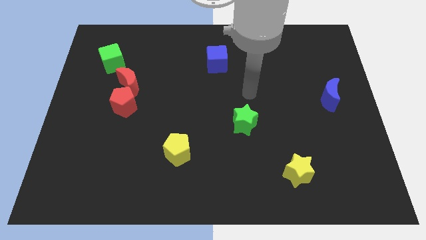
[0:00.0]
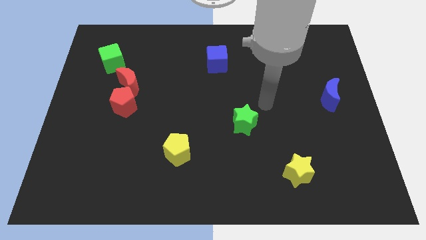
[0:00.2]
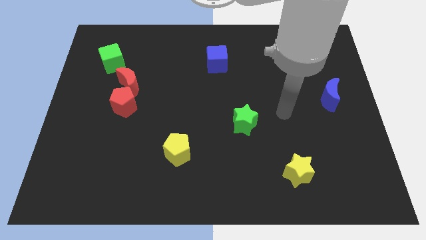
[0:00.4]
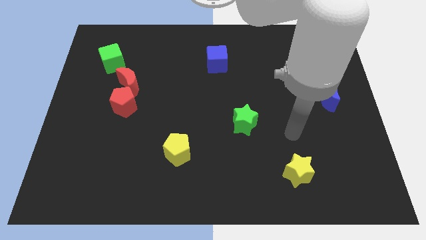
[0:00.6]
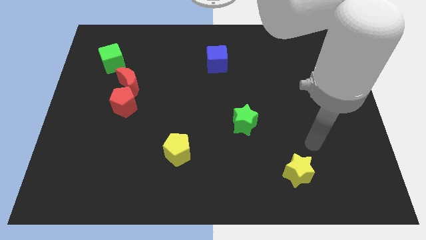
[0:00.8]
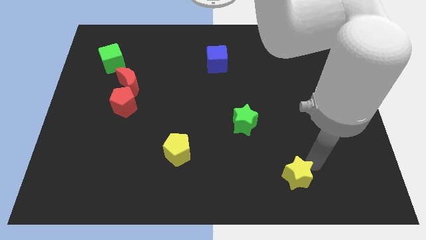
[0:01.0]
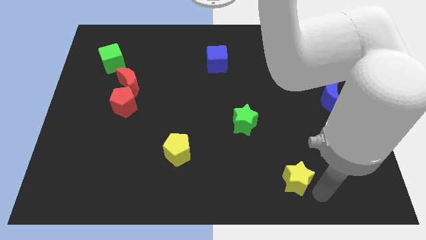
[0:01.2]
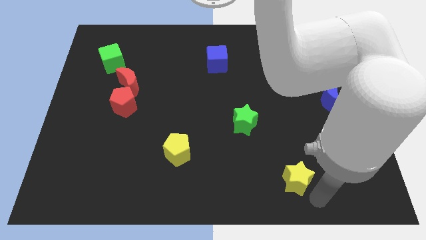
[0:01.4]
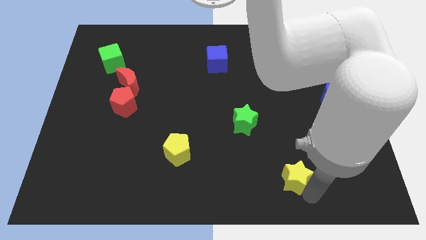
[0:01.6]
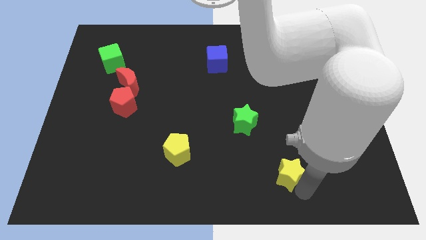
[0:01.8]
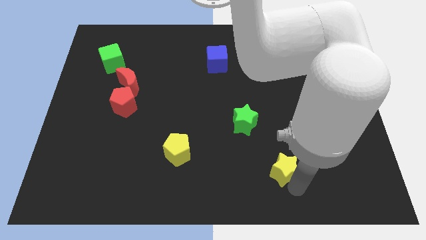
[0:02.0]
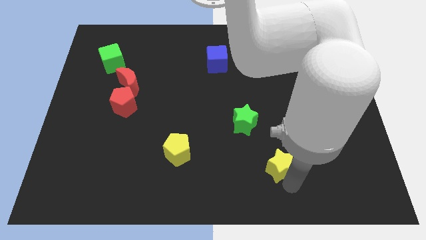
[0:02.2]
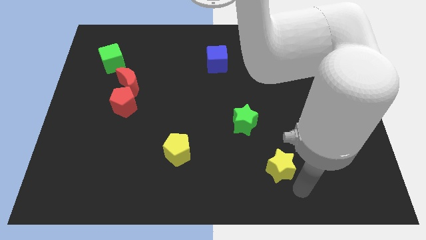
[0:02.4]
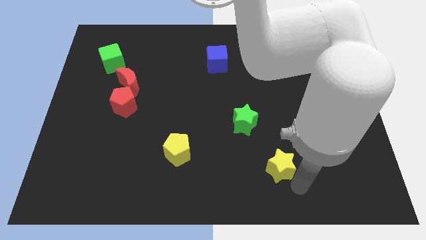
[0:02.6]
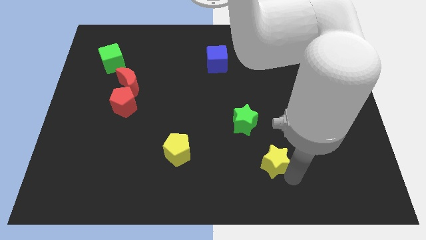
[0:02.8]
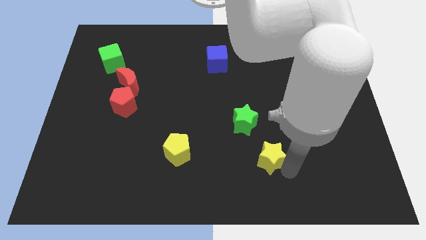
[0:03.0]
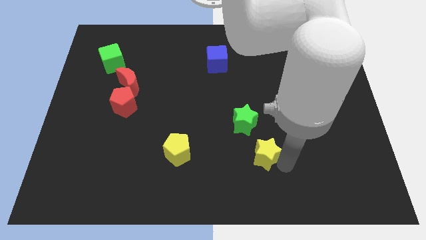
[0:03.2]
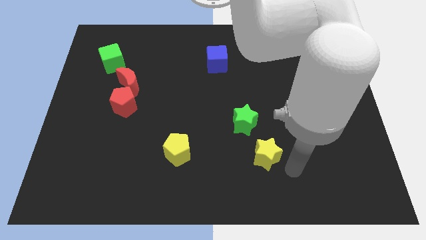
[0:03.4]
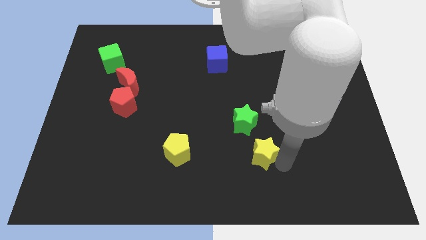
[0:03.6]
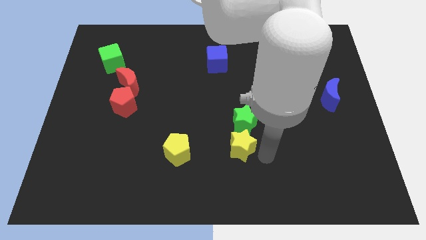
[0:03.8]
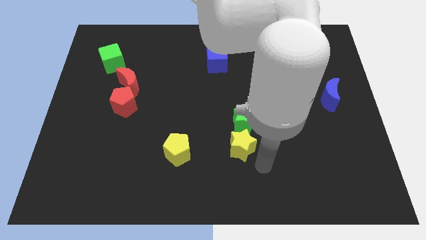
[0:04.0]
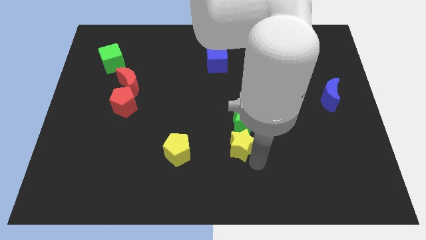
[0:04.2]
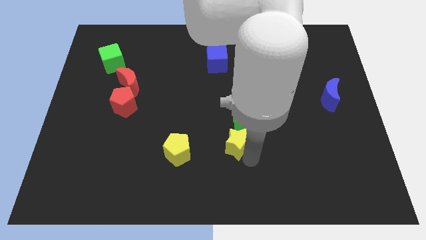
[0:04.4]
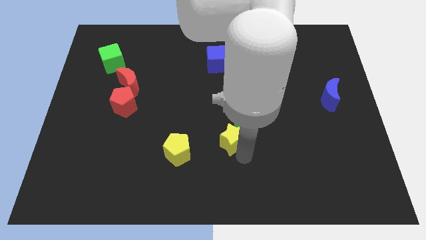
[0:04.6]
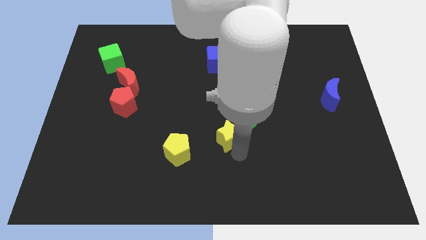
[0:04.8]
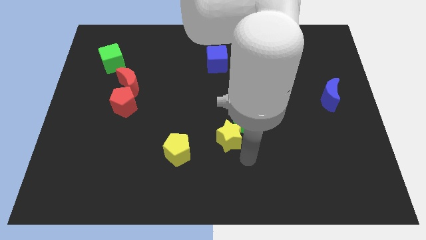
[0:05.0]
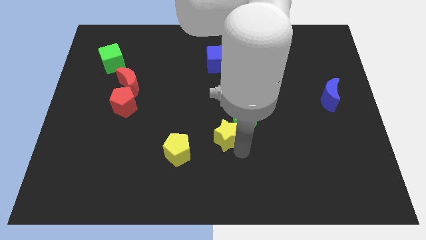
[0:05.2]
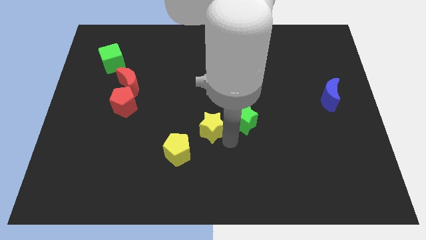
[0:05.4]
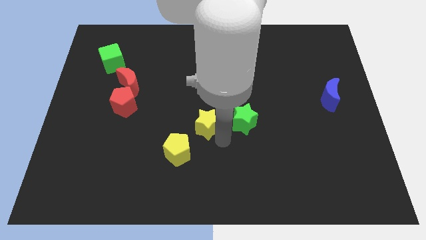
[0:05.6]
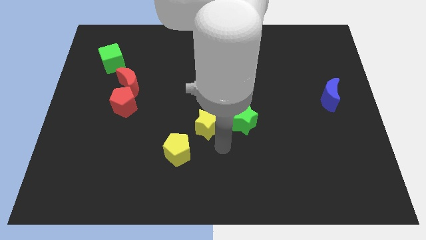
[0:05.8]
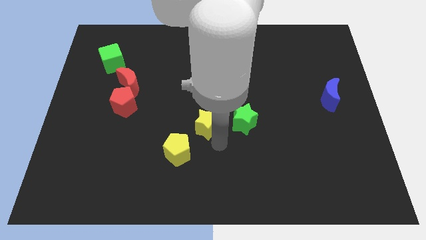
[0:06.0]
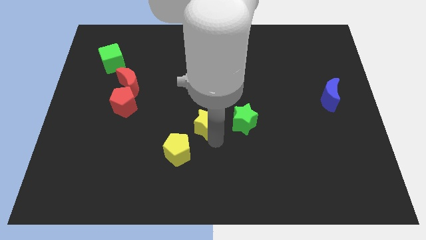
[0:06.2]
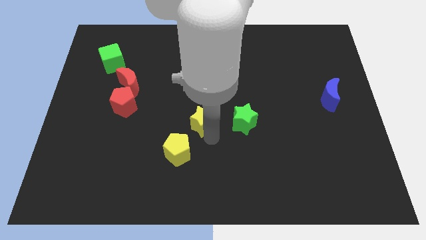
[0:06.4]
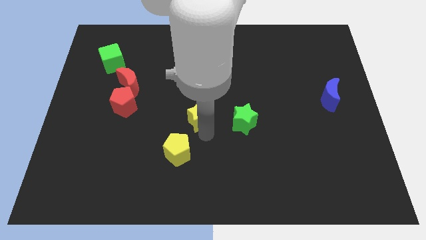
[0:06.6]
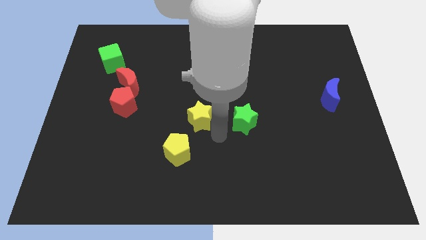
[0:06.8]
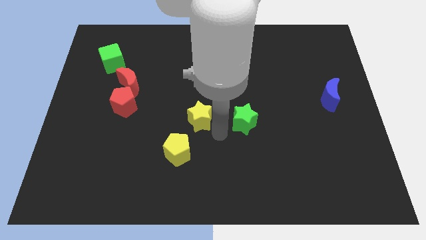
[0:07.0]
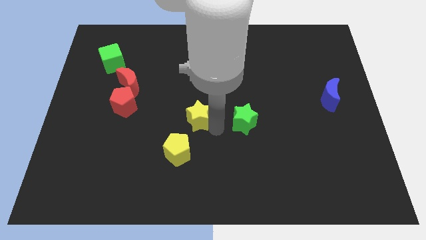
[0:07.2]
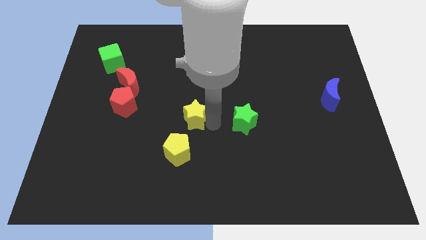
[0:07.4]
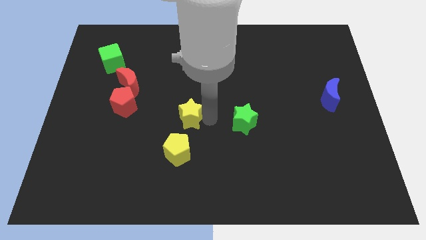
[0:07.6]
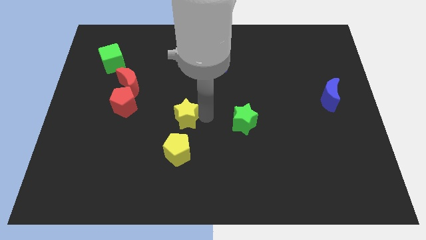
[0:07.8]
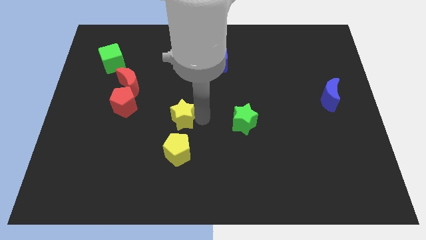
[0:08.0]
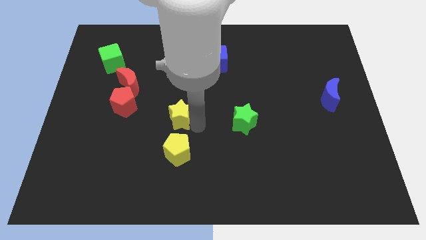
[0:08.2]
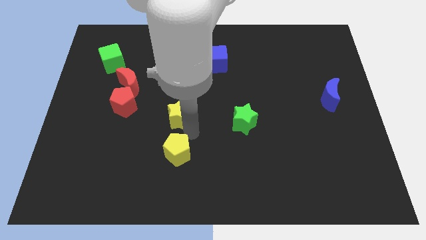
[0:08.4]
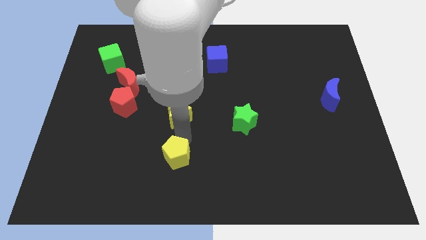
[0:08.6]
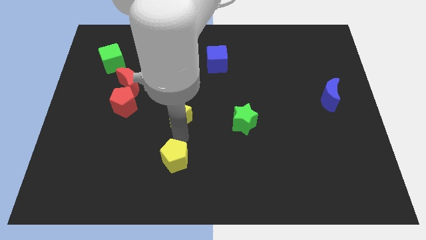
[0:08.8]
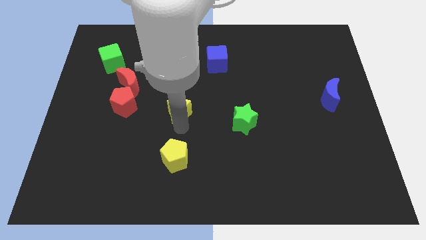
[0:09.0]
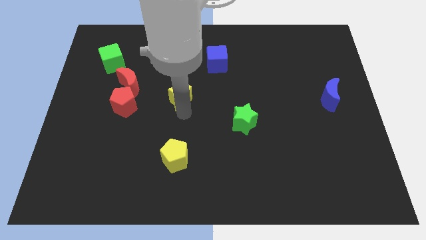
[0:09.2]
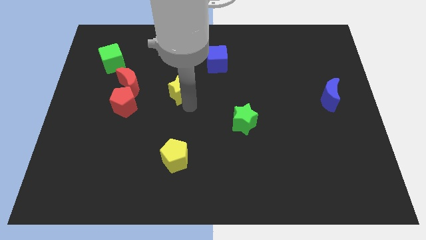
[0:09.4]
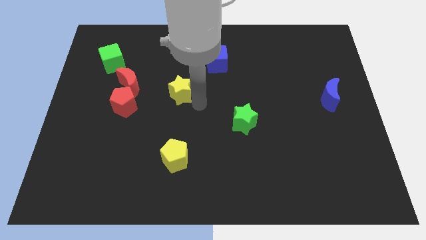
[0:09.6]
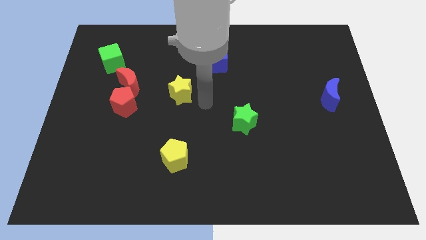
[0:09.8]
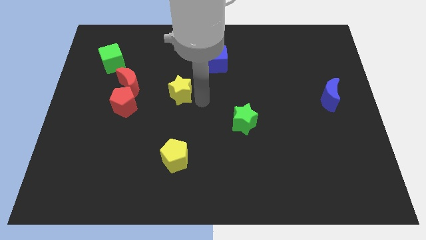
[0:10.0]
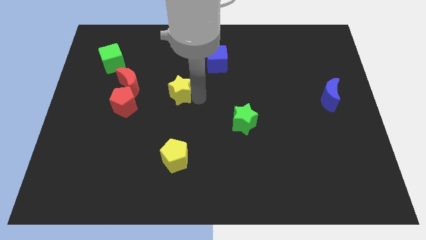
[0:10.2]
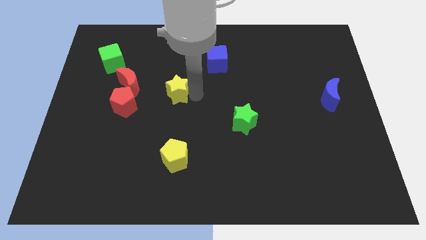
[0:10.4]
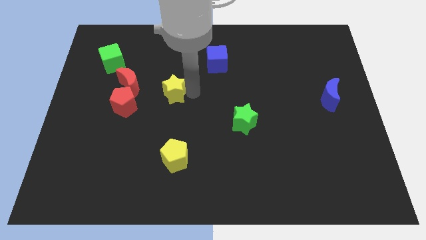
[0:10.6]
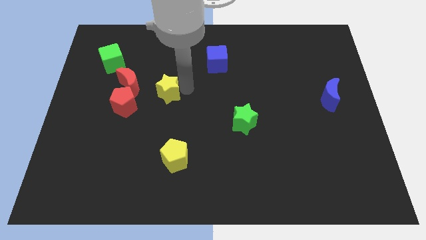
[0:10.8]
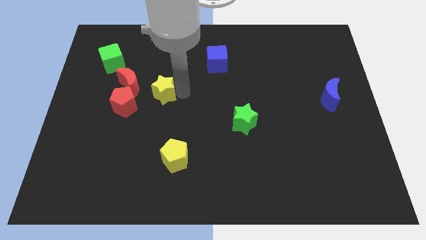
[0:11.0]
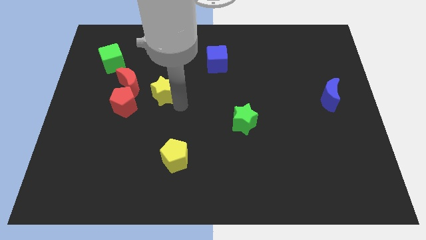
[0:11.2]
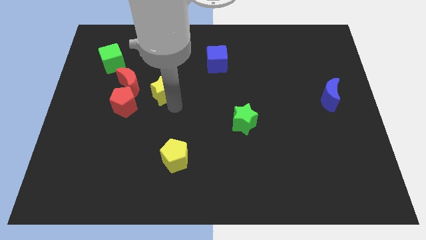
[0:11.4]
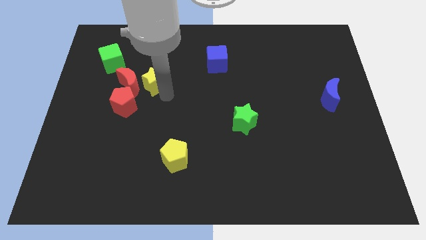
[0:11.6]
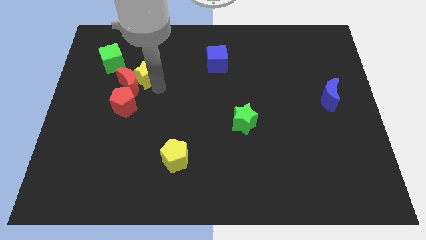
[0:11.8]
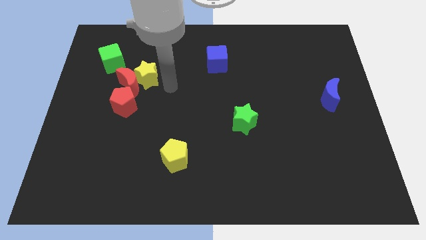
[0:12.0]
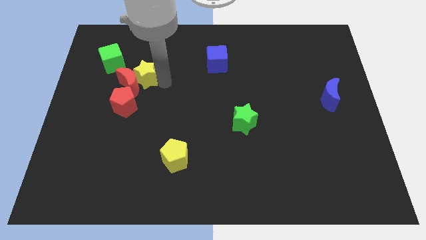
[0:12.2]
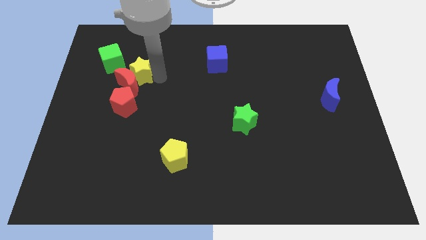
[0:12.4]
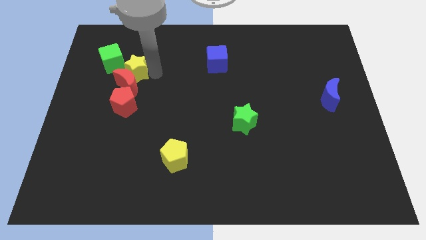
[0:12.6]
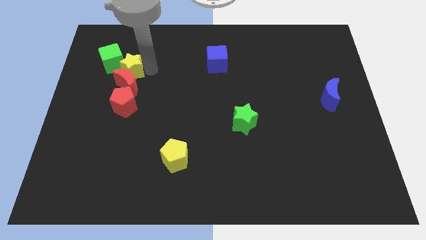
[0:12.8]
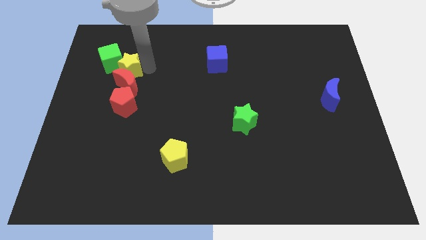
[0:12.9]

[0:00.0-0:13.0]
push the yellow star towards the green cube

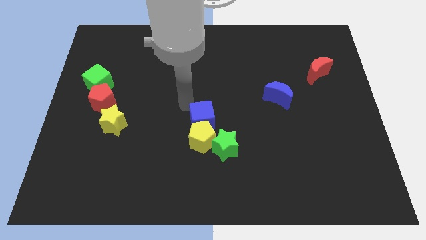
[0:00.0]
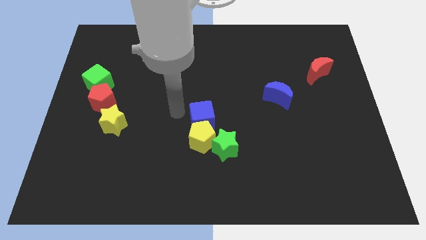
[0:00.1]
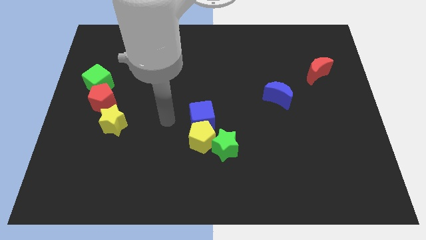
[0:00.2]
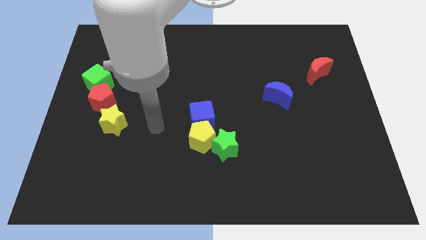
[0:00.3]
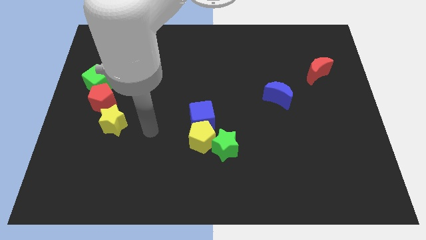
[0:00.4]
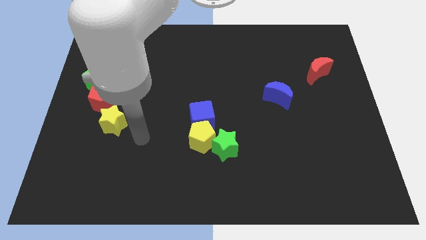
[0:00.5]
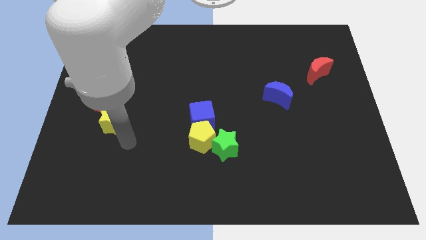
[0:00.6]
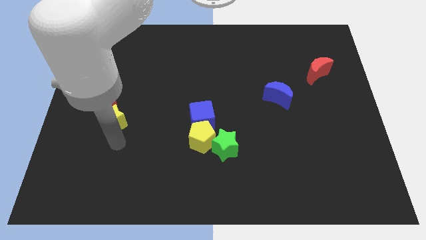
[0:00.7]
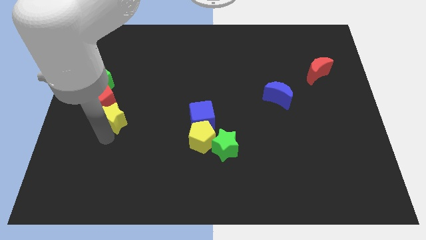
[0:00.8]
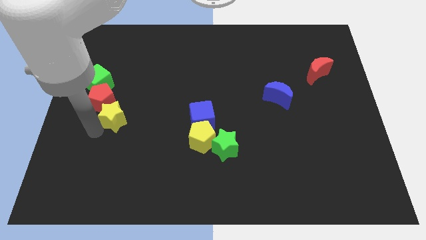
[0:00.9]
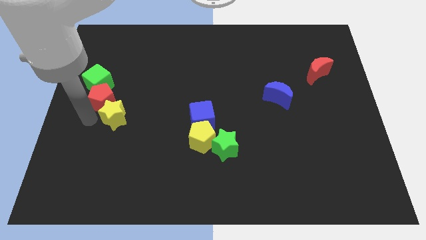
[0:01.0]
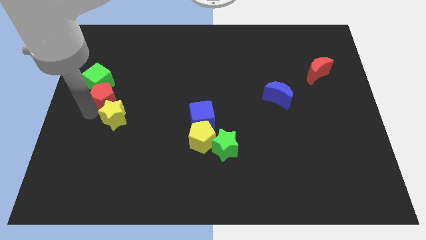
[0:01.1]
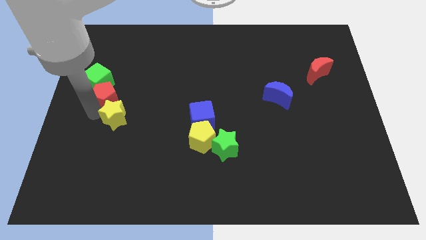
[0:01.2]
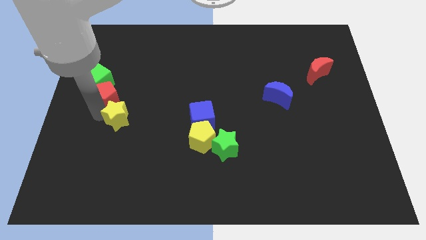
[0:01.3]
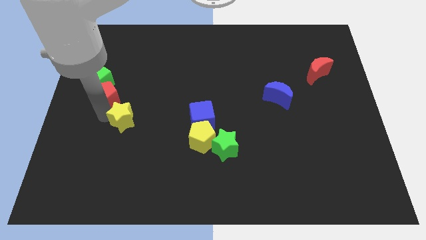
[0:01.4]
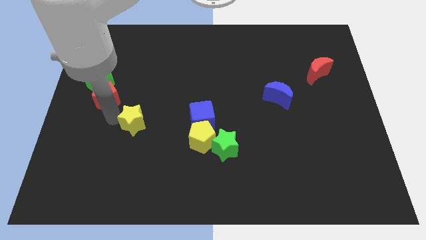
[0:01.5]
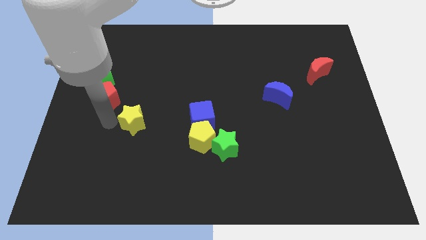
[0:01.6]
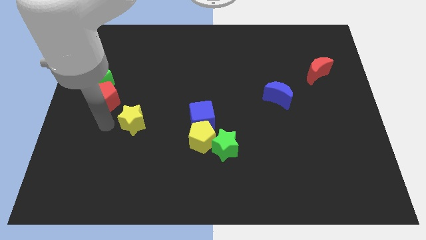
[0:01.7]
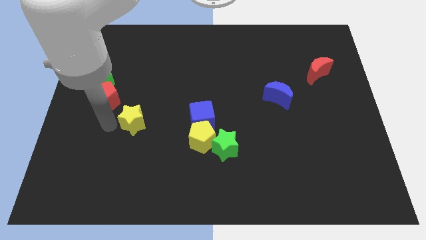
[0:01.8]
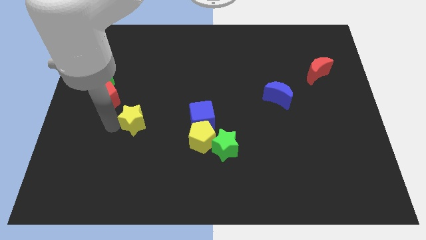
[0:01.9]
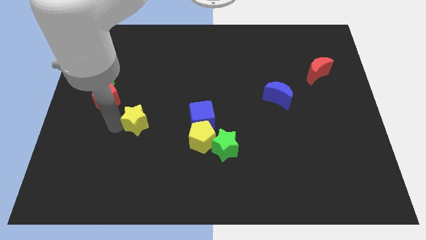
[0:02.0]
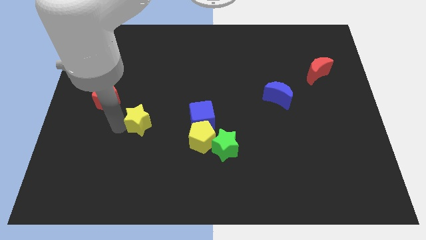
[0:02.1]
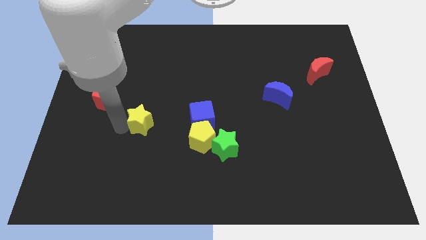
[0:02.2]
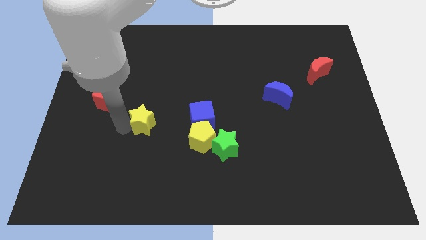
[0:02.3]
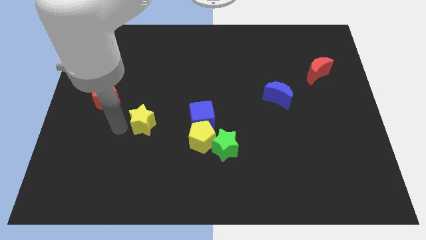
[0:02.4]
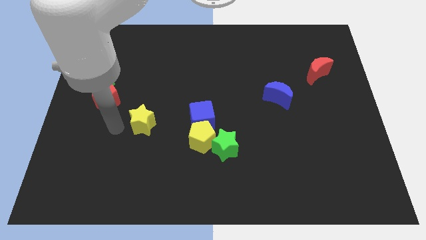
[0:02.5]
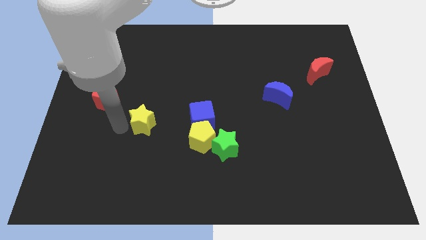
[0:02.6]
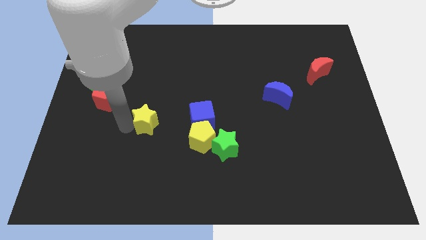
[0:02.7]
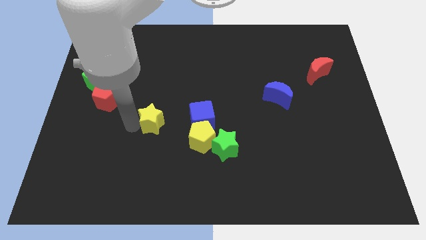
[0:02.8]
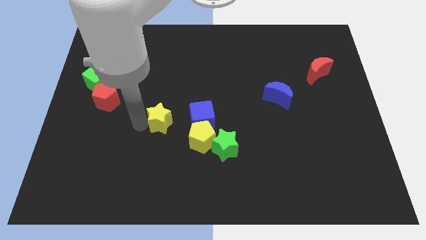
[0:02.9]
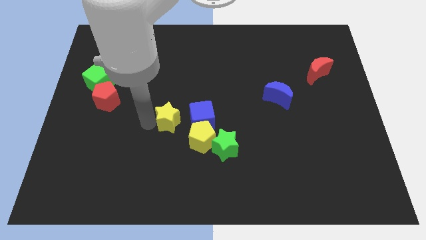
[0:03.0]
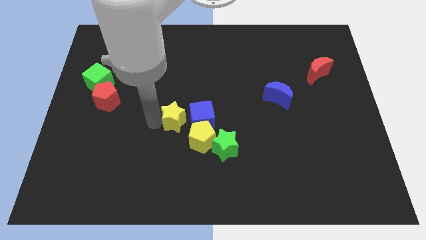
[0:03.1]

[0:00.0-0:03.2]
slide the yellow star next to the blue cube
